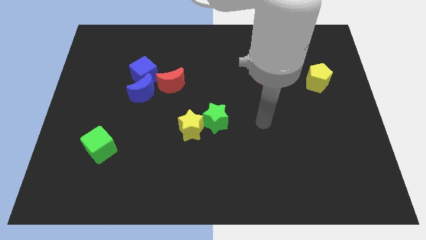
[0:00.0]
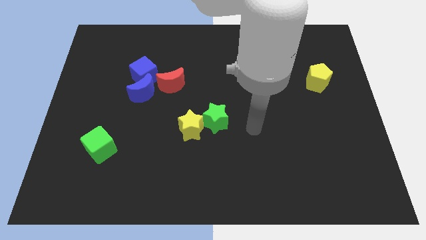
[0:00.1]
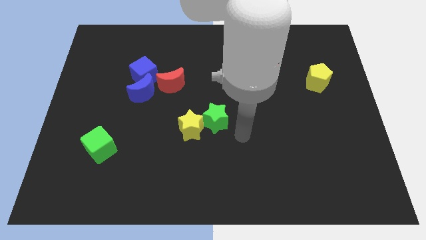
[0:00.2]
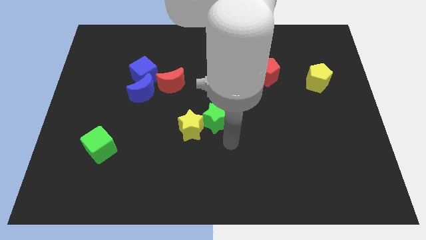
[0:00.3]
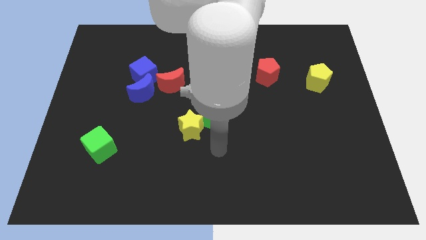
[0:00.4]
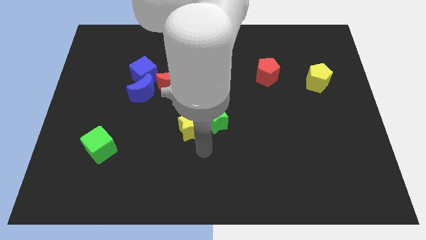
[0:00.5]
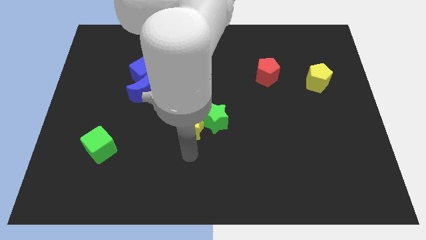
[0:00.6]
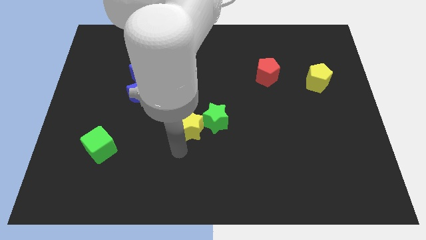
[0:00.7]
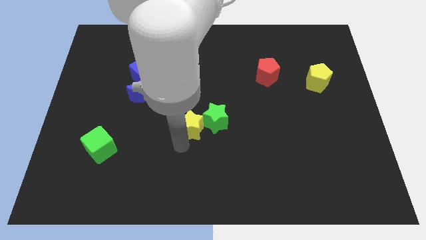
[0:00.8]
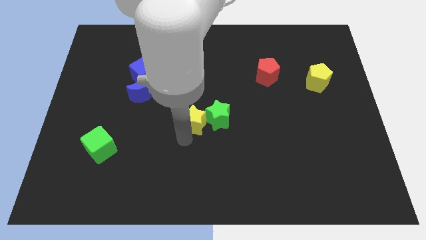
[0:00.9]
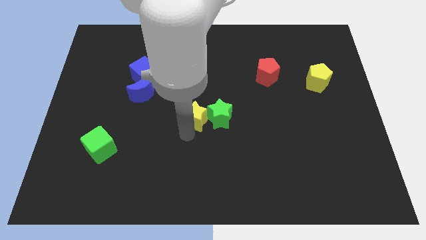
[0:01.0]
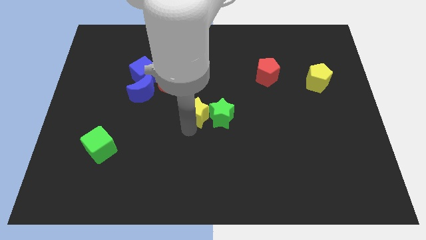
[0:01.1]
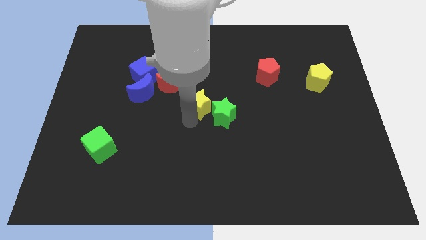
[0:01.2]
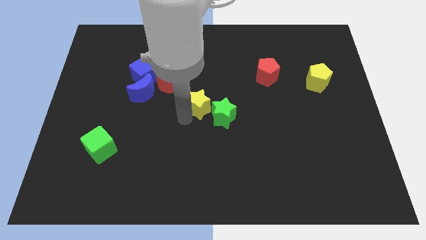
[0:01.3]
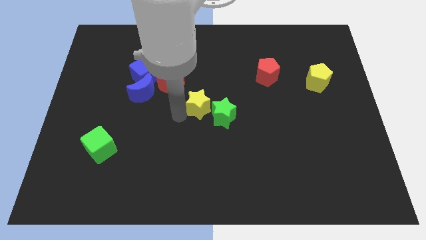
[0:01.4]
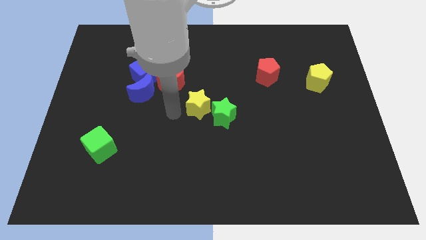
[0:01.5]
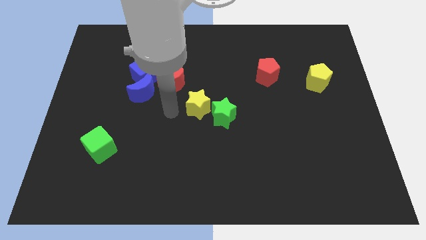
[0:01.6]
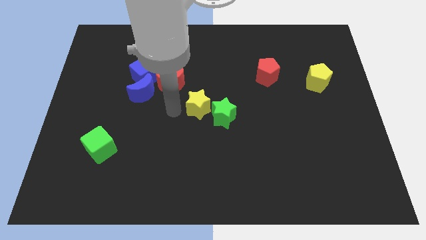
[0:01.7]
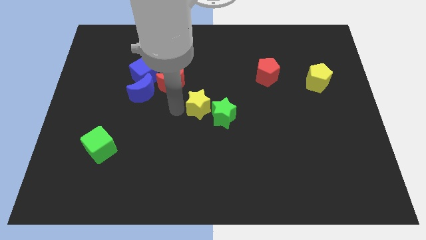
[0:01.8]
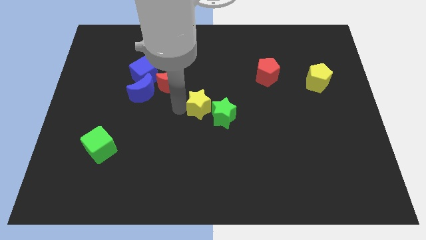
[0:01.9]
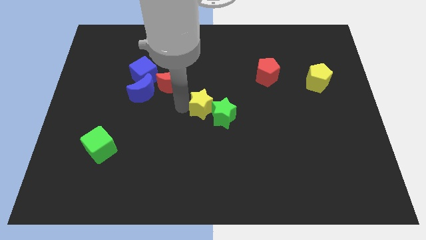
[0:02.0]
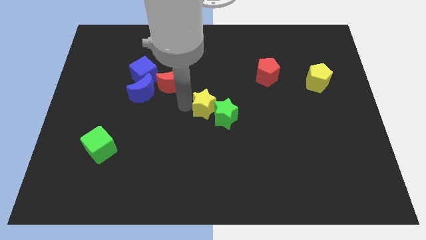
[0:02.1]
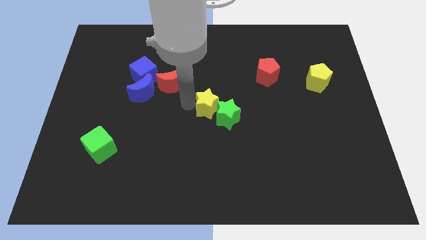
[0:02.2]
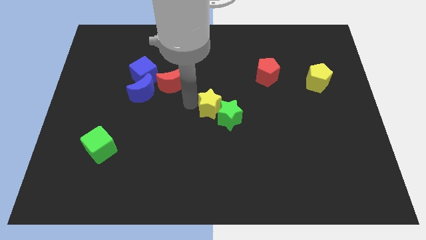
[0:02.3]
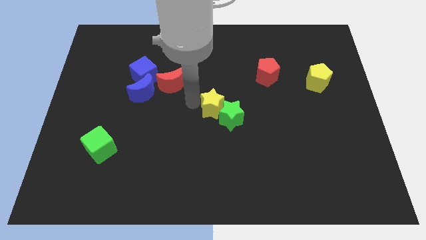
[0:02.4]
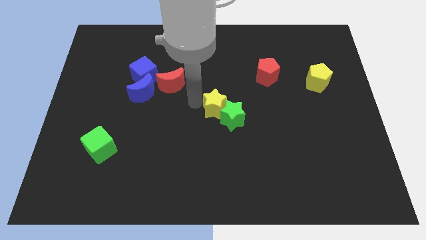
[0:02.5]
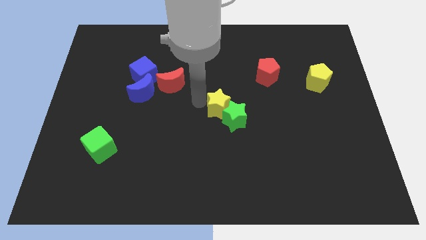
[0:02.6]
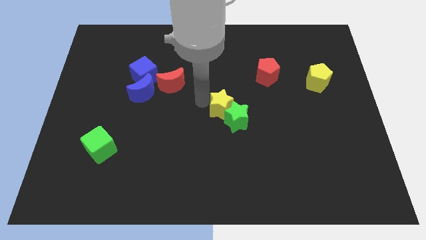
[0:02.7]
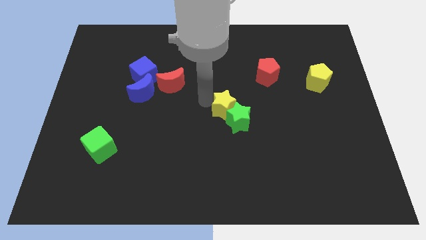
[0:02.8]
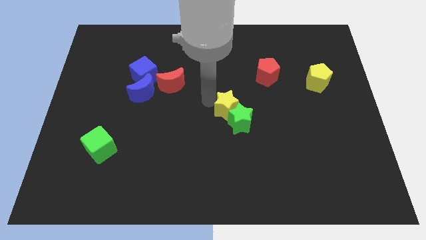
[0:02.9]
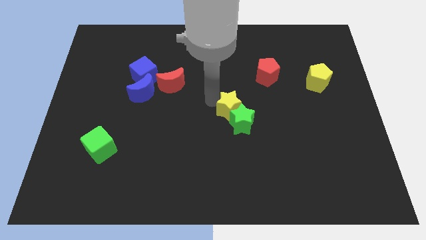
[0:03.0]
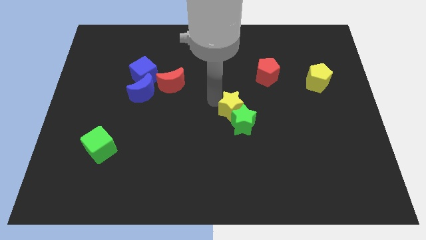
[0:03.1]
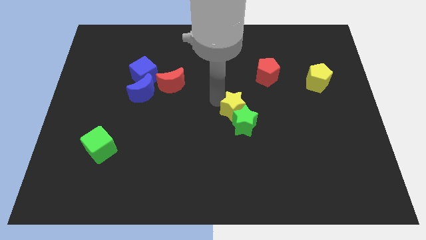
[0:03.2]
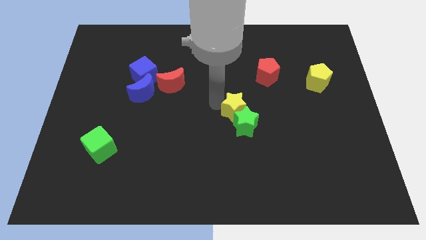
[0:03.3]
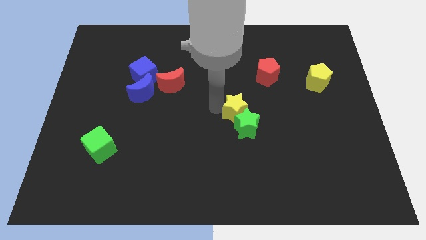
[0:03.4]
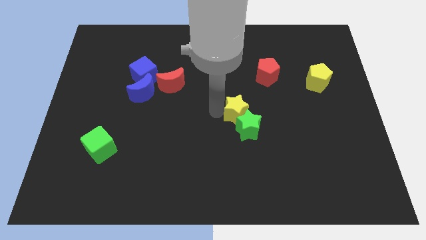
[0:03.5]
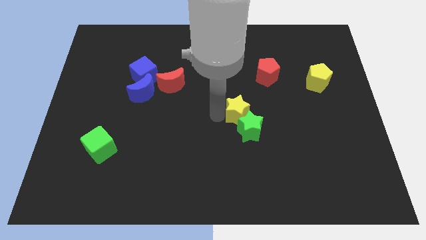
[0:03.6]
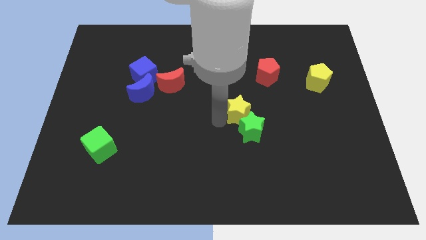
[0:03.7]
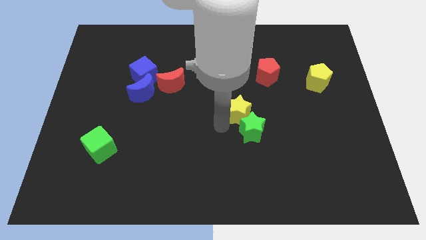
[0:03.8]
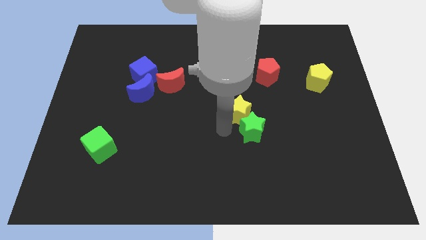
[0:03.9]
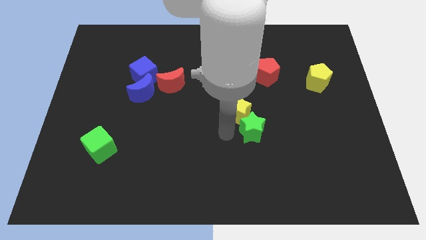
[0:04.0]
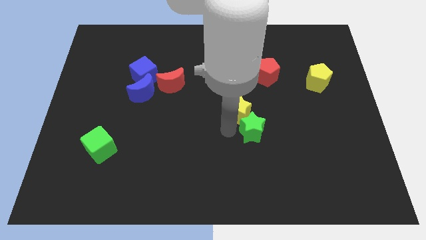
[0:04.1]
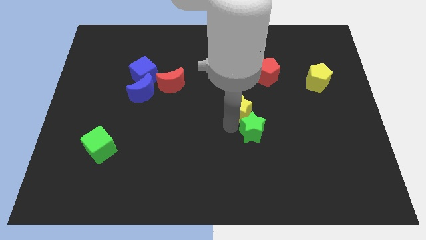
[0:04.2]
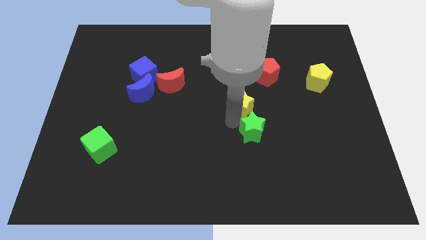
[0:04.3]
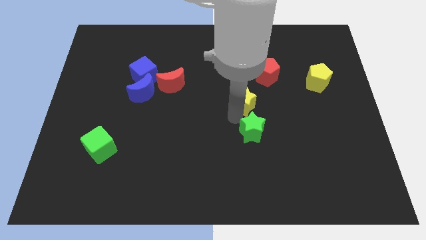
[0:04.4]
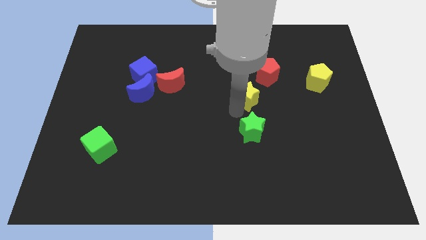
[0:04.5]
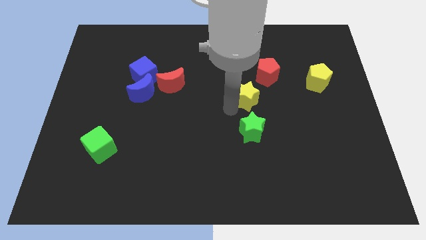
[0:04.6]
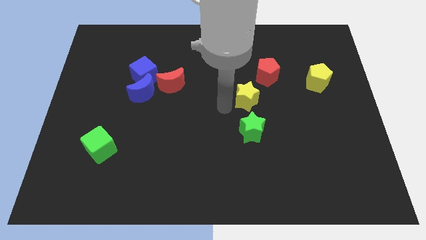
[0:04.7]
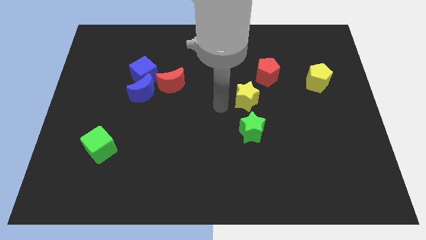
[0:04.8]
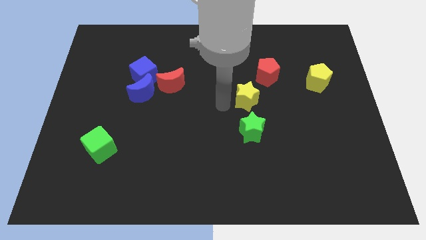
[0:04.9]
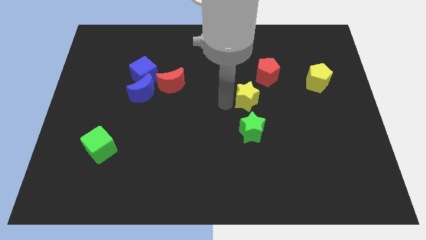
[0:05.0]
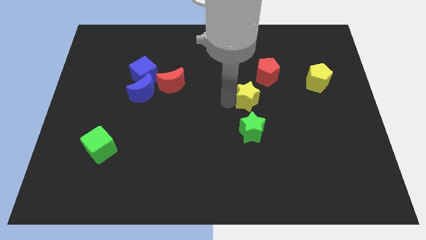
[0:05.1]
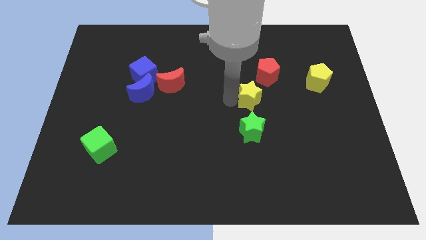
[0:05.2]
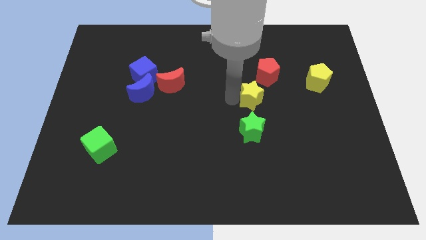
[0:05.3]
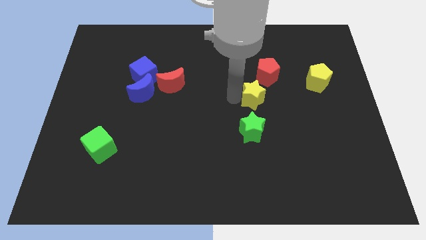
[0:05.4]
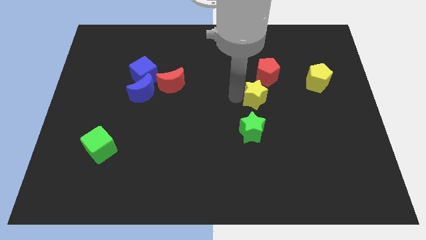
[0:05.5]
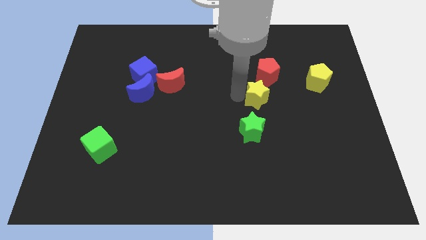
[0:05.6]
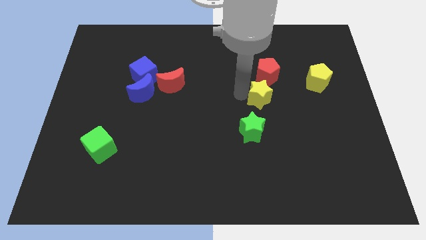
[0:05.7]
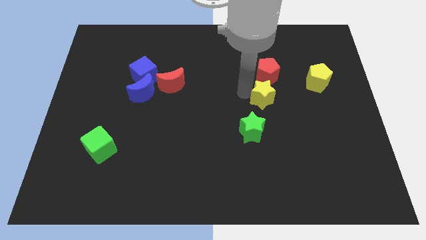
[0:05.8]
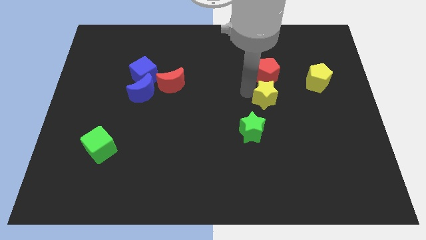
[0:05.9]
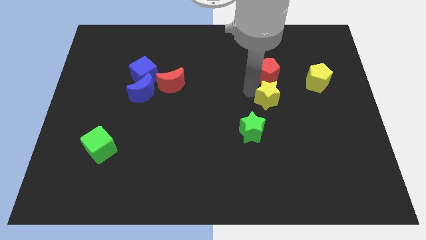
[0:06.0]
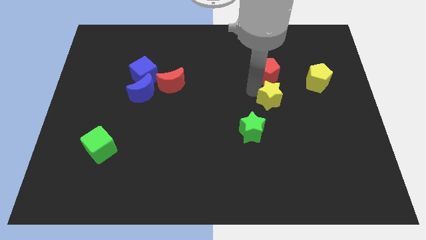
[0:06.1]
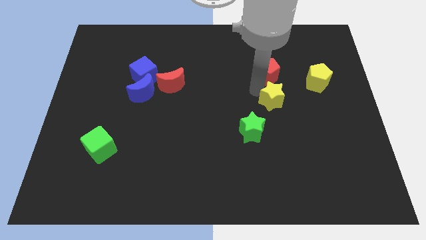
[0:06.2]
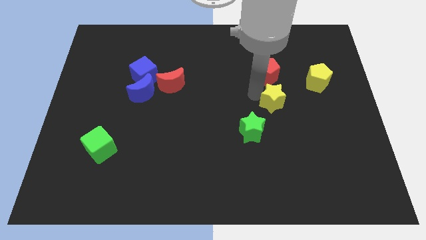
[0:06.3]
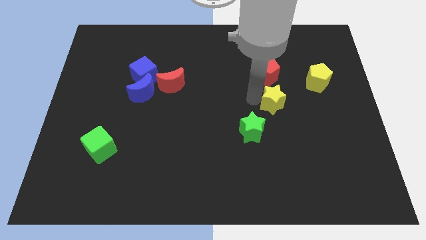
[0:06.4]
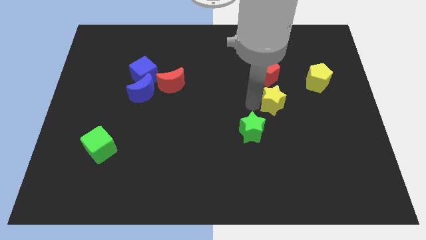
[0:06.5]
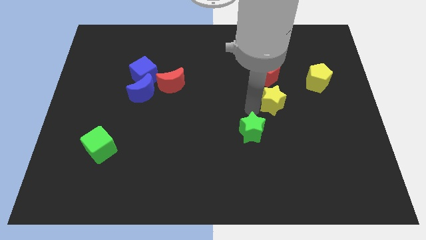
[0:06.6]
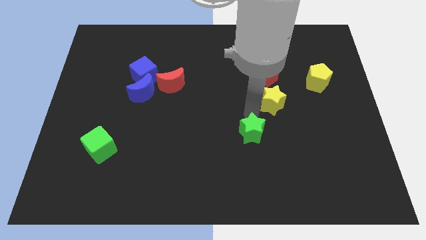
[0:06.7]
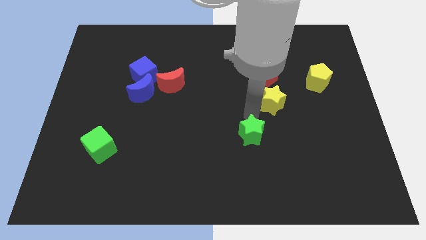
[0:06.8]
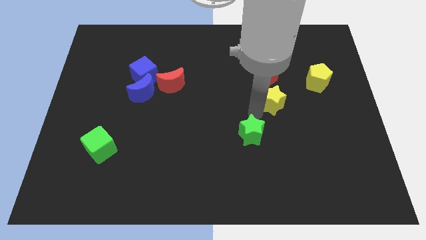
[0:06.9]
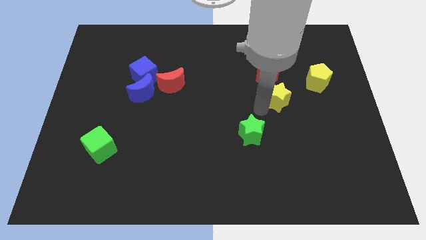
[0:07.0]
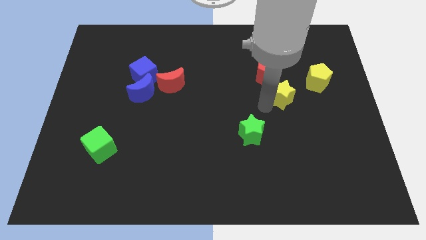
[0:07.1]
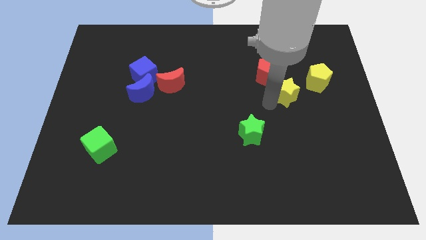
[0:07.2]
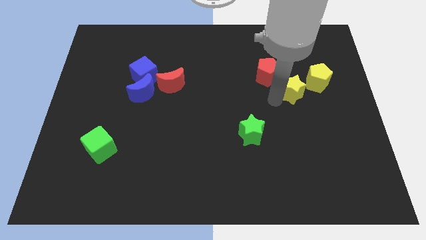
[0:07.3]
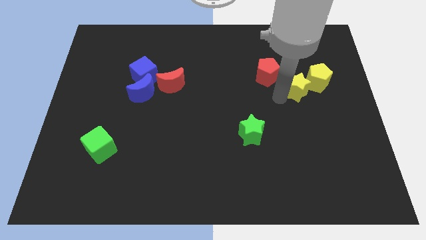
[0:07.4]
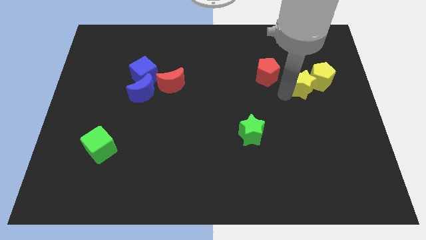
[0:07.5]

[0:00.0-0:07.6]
slide the yellow star towards the yellow pentagon
